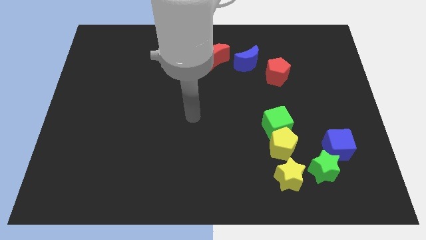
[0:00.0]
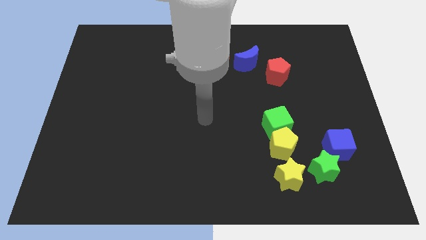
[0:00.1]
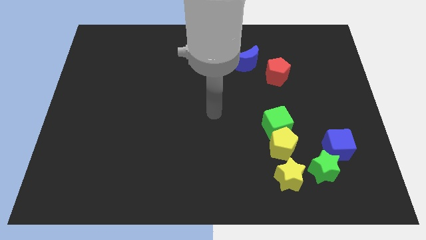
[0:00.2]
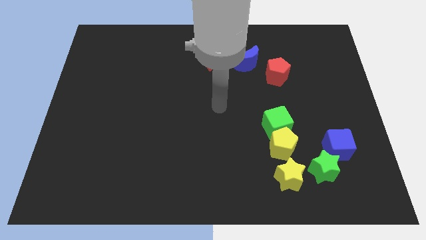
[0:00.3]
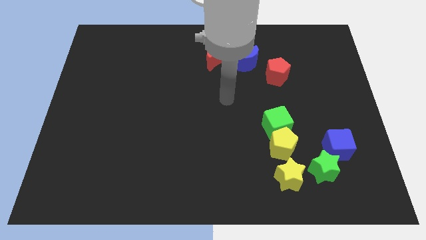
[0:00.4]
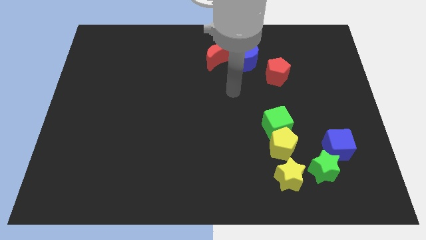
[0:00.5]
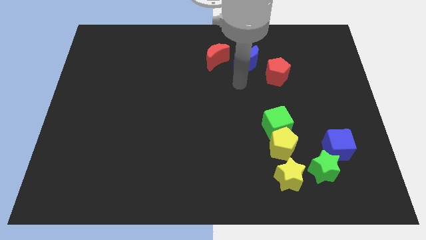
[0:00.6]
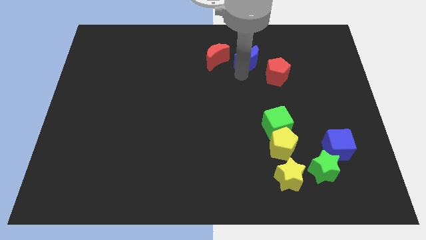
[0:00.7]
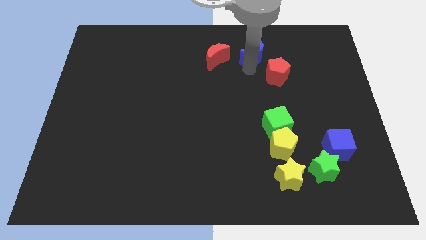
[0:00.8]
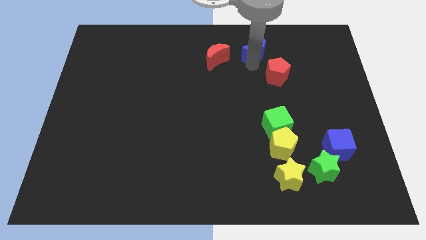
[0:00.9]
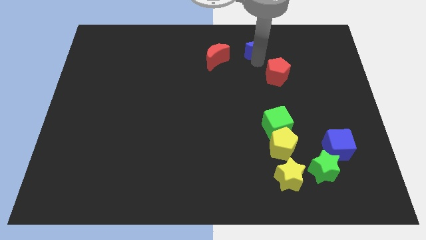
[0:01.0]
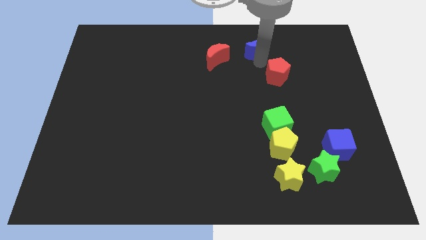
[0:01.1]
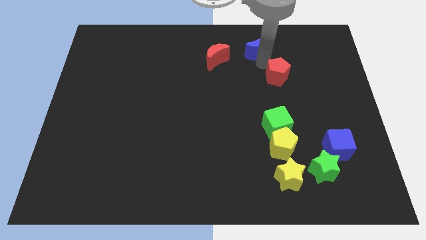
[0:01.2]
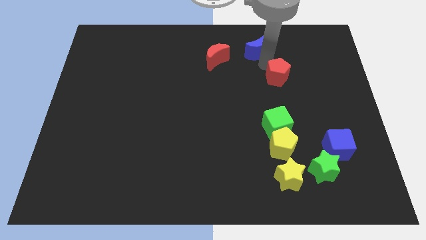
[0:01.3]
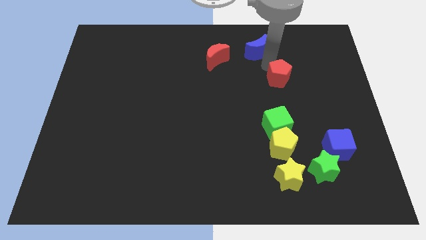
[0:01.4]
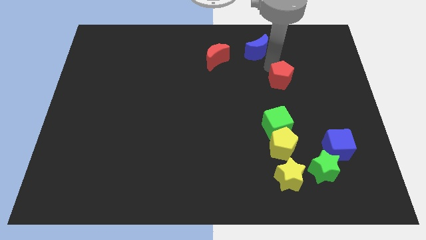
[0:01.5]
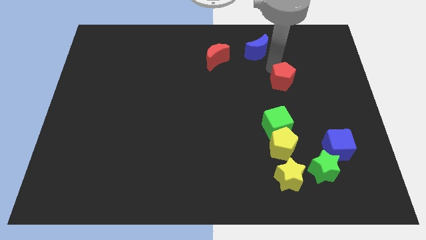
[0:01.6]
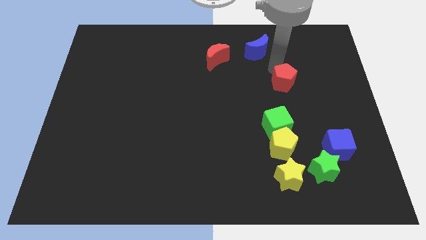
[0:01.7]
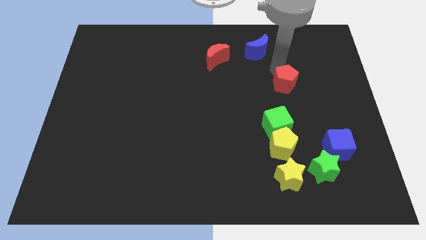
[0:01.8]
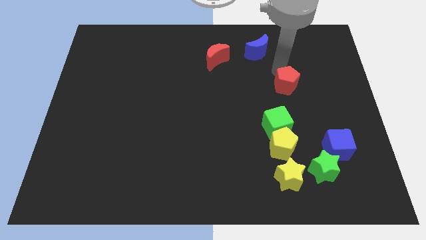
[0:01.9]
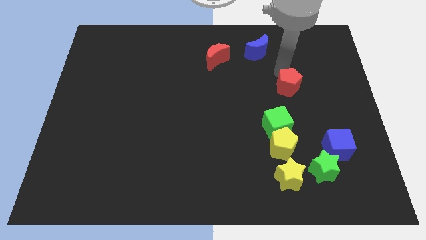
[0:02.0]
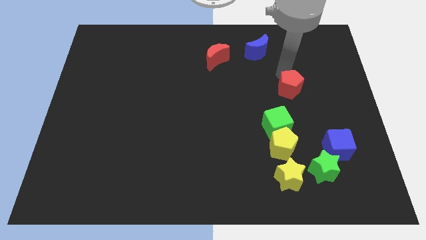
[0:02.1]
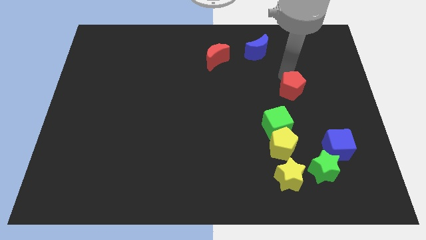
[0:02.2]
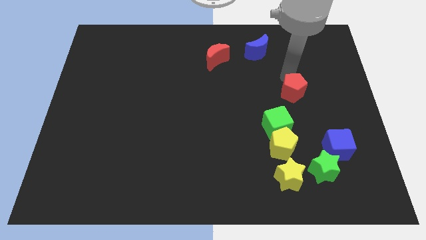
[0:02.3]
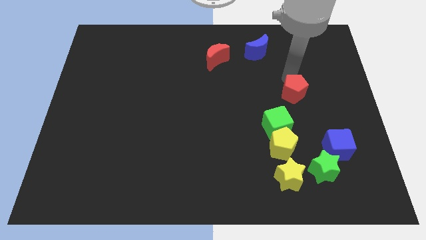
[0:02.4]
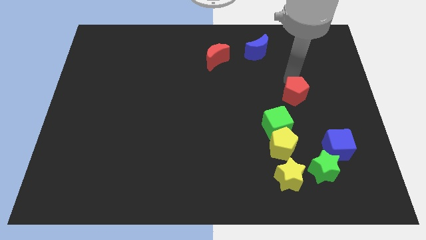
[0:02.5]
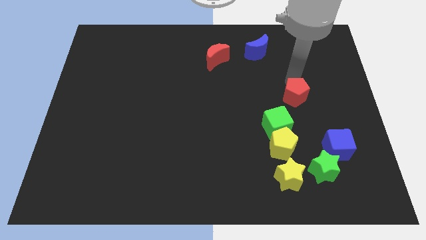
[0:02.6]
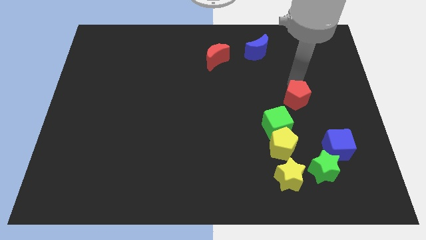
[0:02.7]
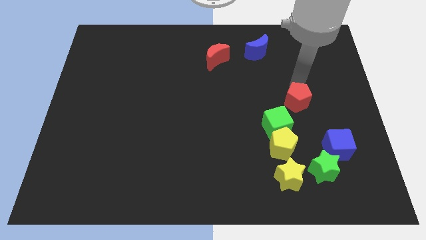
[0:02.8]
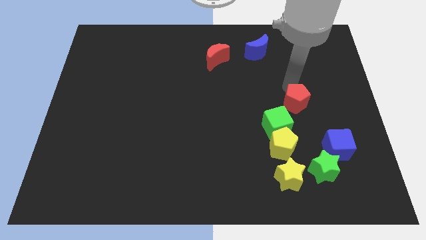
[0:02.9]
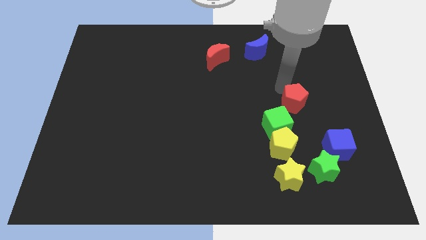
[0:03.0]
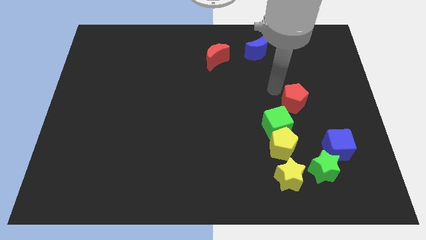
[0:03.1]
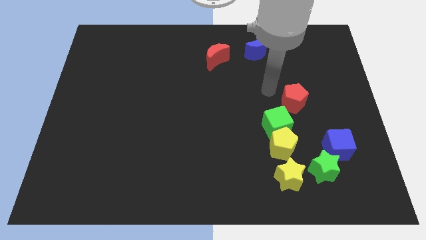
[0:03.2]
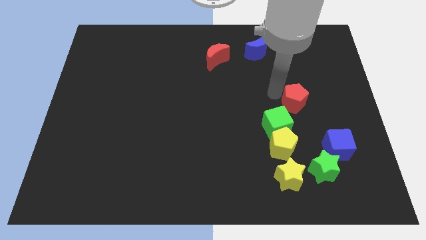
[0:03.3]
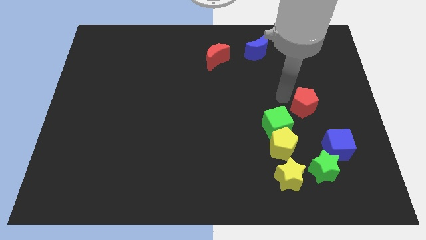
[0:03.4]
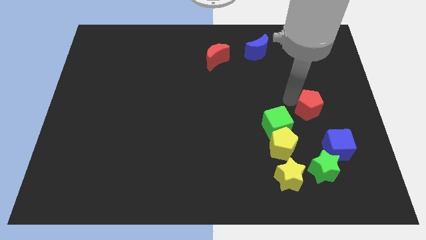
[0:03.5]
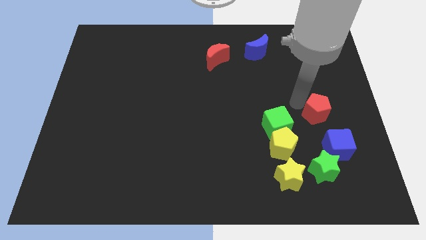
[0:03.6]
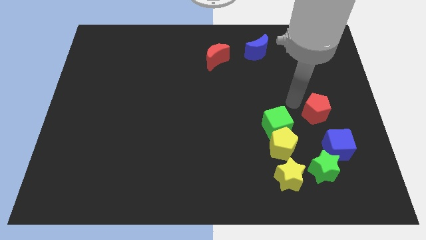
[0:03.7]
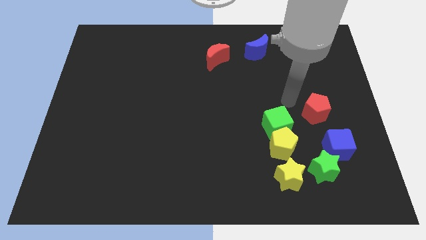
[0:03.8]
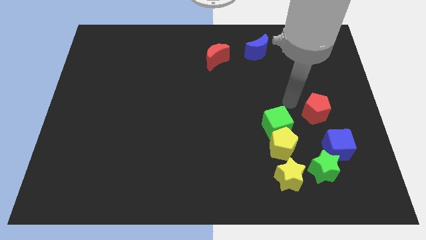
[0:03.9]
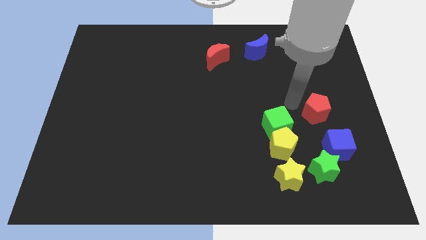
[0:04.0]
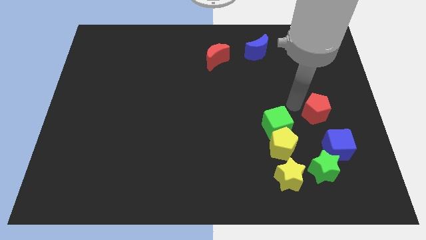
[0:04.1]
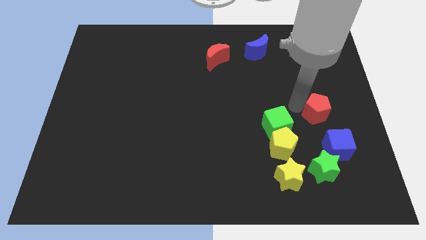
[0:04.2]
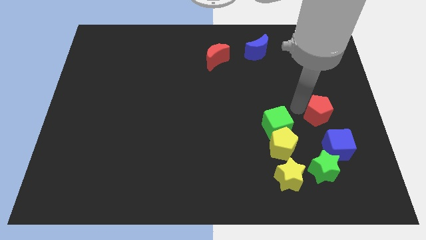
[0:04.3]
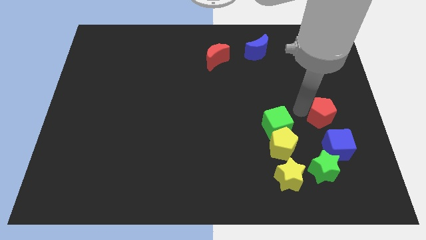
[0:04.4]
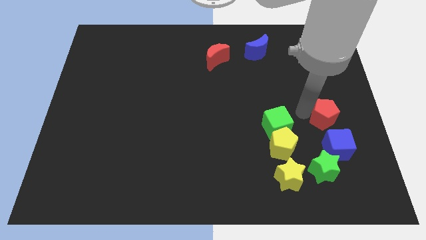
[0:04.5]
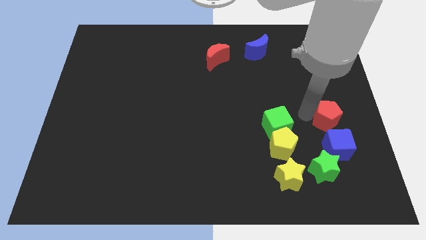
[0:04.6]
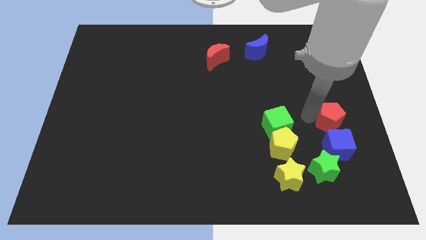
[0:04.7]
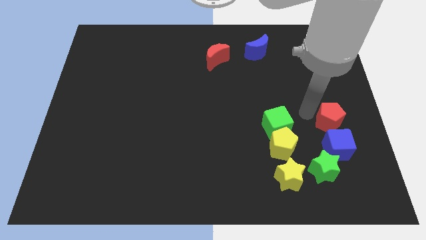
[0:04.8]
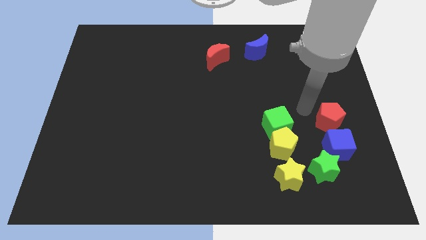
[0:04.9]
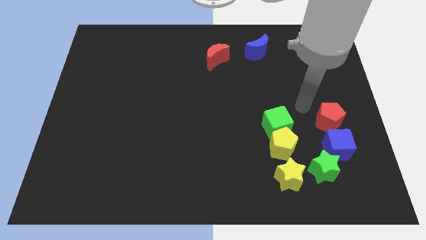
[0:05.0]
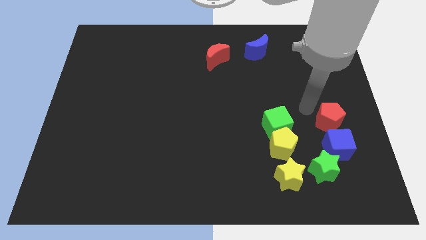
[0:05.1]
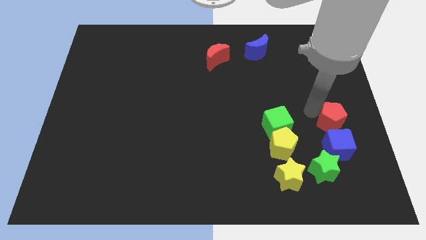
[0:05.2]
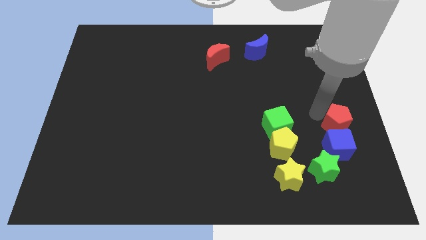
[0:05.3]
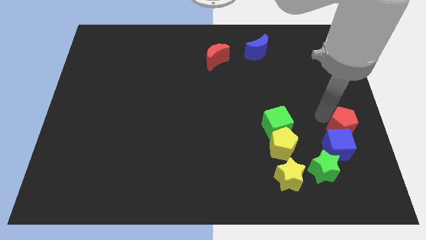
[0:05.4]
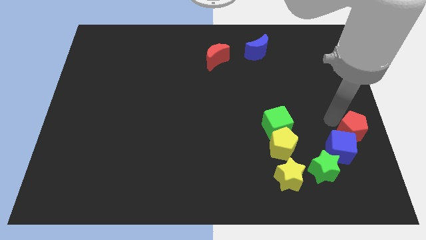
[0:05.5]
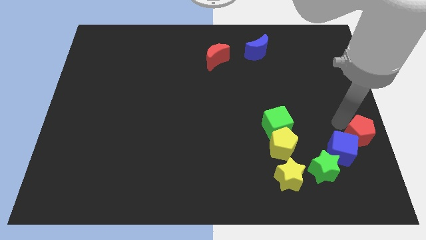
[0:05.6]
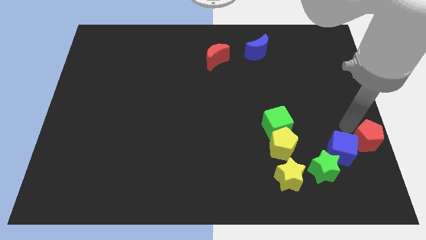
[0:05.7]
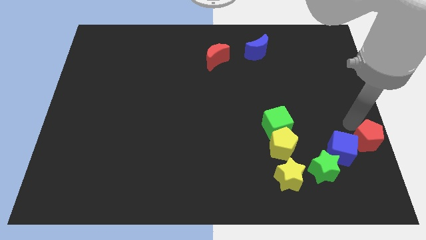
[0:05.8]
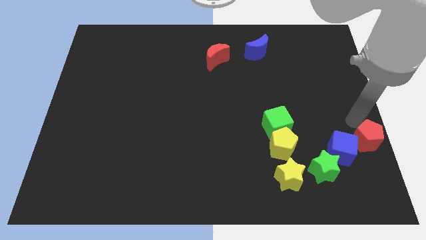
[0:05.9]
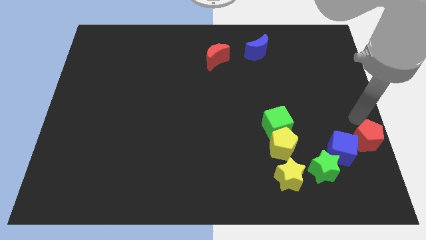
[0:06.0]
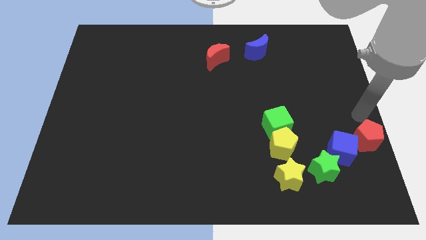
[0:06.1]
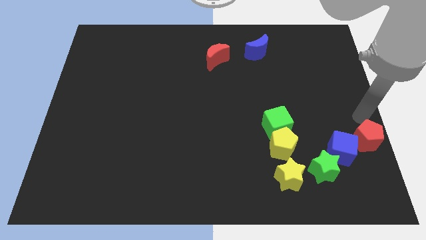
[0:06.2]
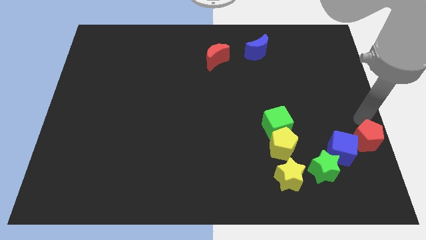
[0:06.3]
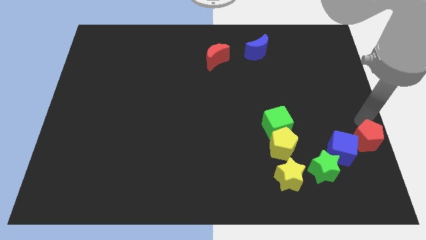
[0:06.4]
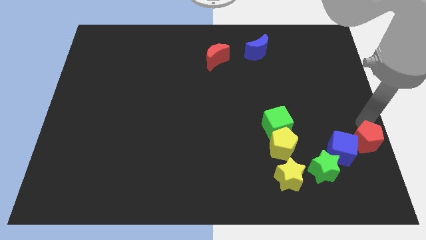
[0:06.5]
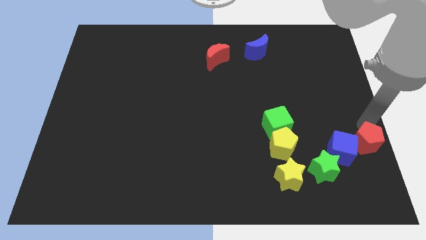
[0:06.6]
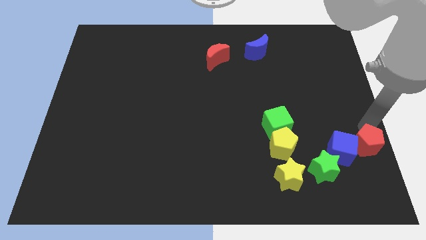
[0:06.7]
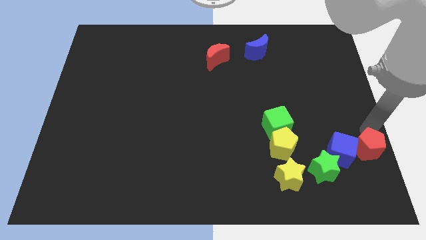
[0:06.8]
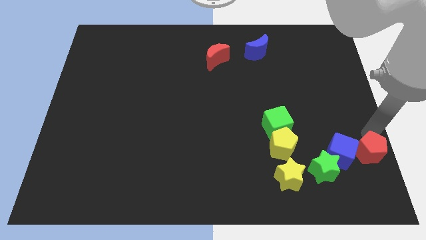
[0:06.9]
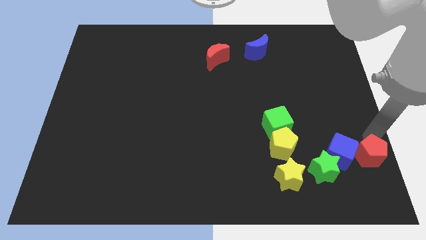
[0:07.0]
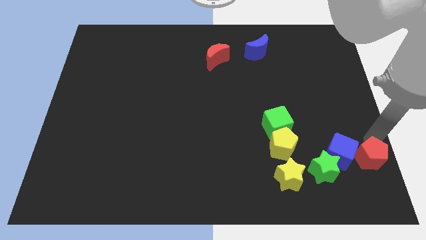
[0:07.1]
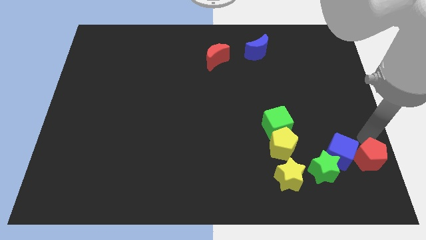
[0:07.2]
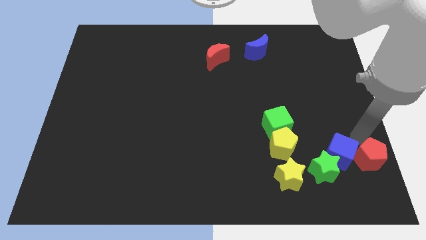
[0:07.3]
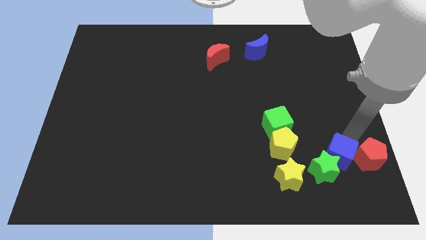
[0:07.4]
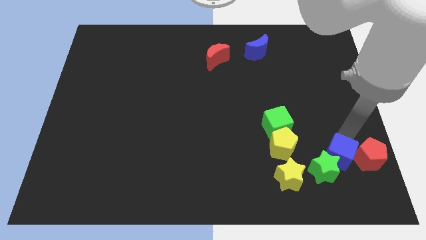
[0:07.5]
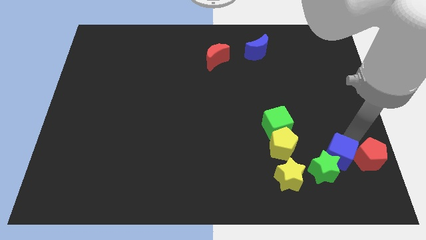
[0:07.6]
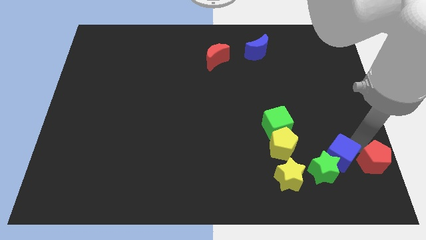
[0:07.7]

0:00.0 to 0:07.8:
slide the red pentagon to the bottom right of the board
